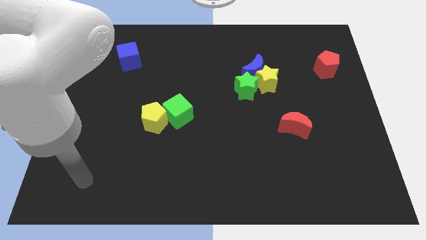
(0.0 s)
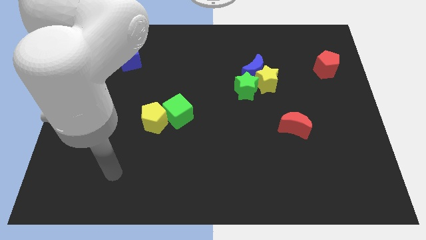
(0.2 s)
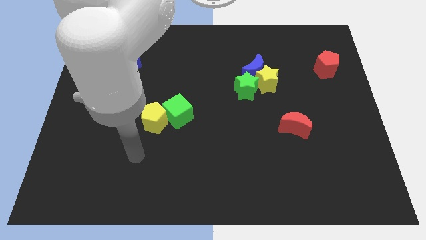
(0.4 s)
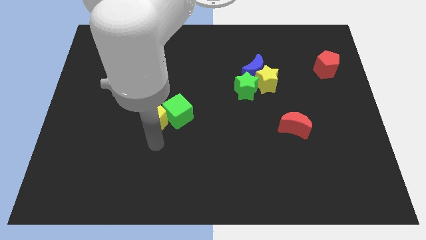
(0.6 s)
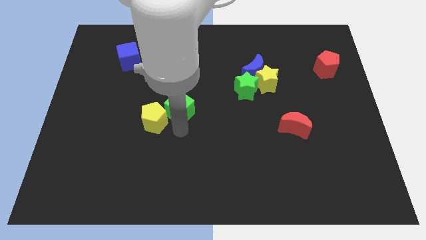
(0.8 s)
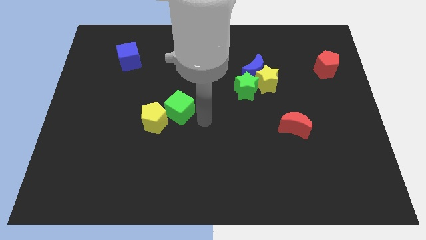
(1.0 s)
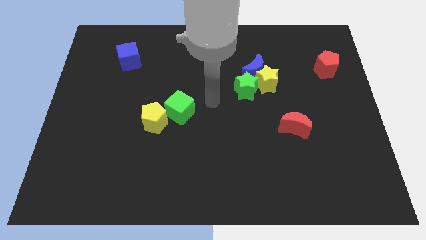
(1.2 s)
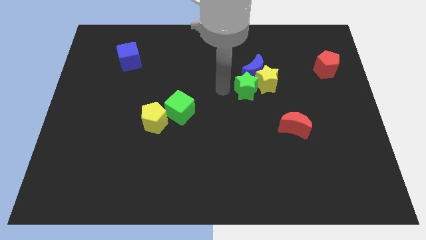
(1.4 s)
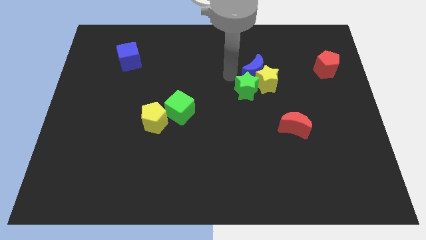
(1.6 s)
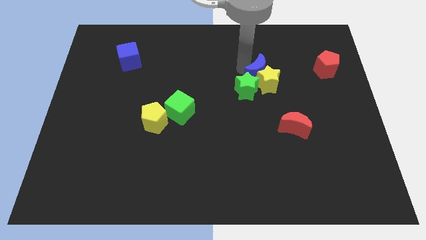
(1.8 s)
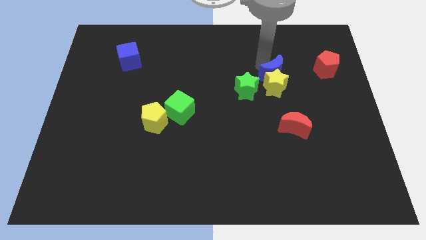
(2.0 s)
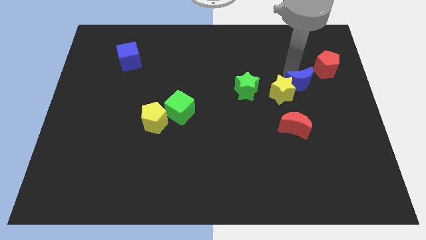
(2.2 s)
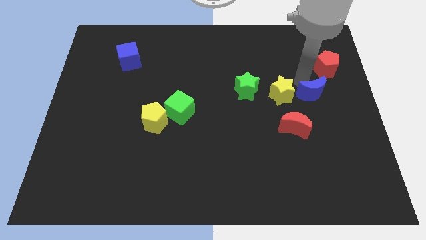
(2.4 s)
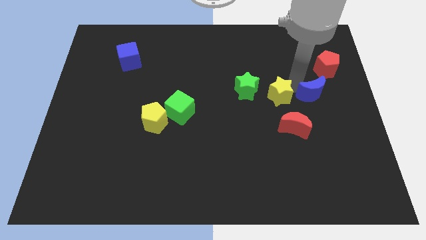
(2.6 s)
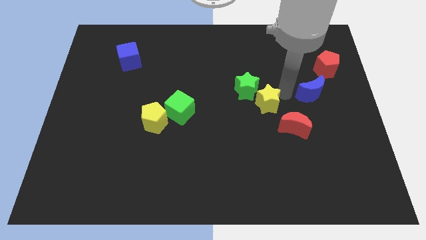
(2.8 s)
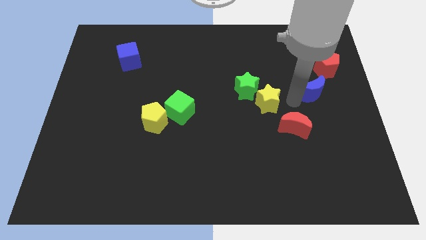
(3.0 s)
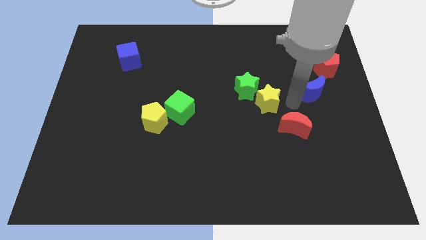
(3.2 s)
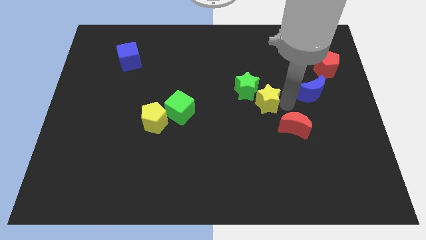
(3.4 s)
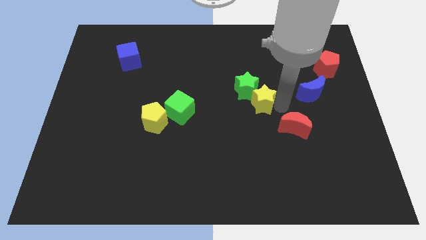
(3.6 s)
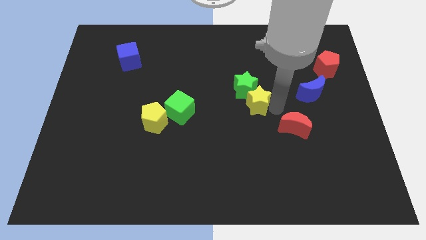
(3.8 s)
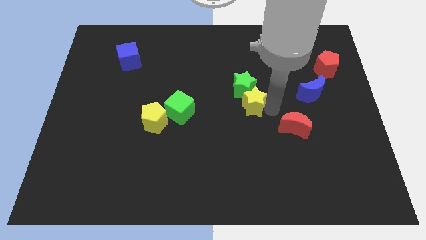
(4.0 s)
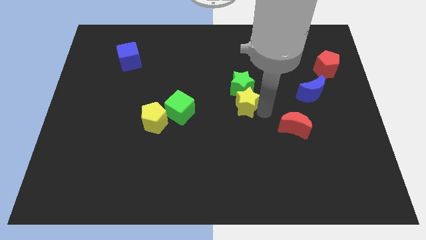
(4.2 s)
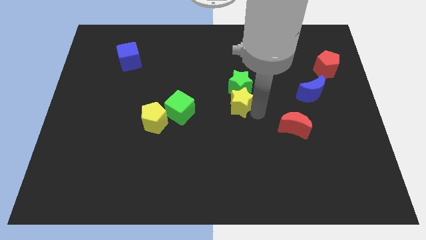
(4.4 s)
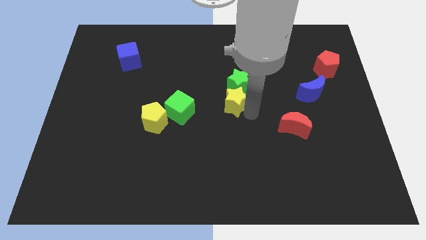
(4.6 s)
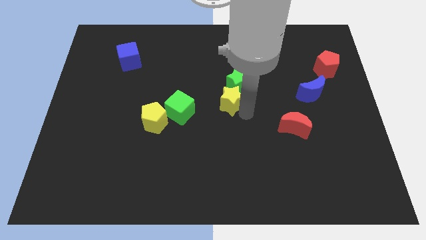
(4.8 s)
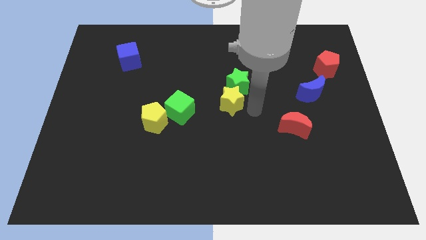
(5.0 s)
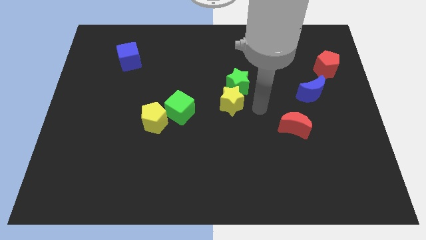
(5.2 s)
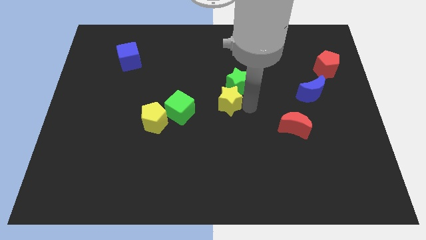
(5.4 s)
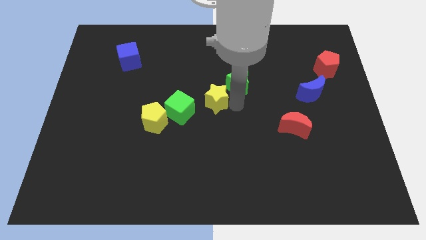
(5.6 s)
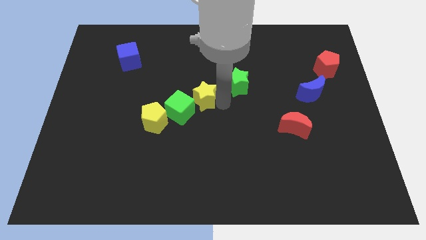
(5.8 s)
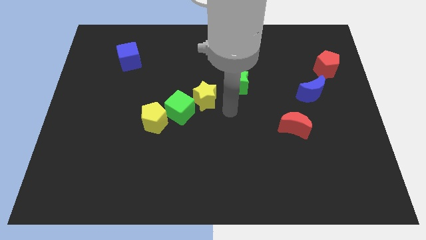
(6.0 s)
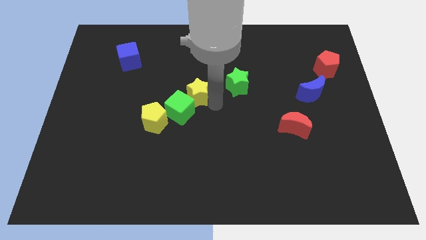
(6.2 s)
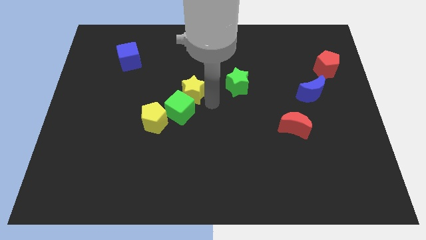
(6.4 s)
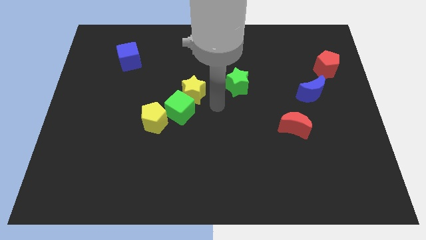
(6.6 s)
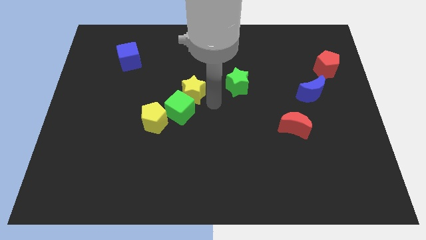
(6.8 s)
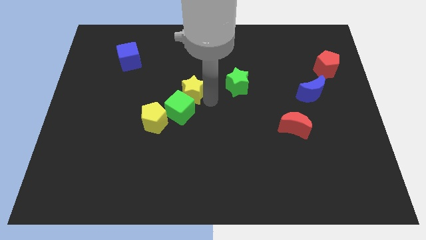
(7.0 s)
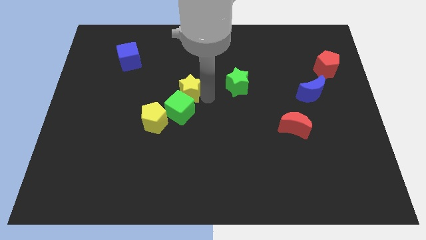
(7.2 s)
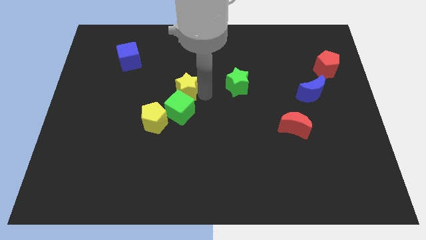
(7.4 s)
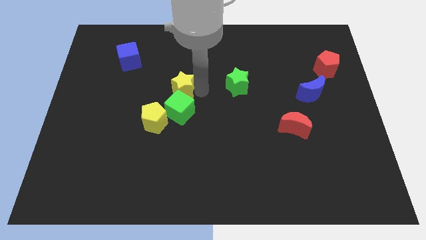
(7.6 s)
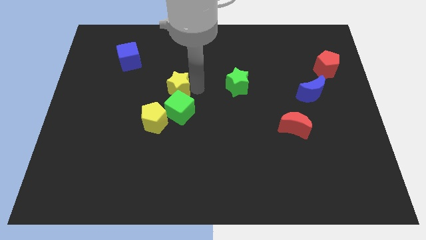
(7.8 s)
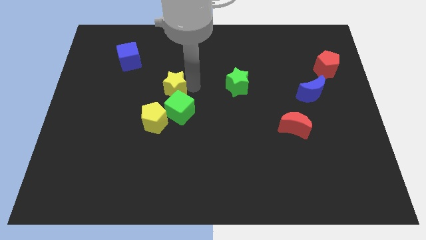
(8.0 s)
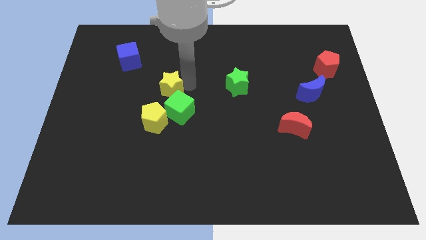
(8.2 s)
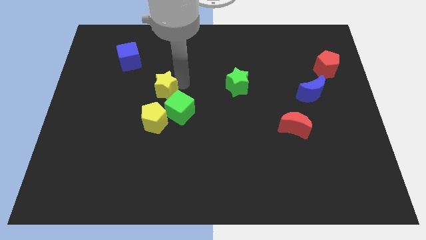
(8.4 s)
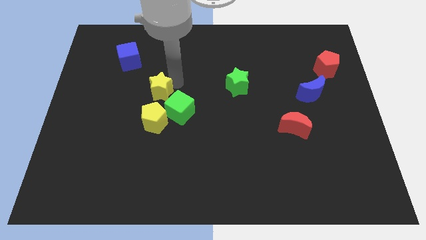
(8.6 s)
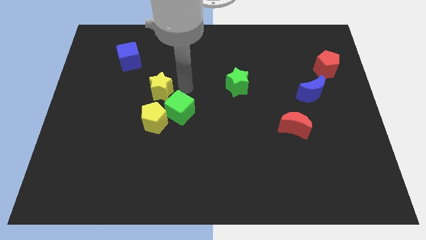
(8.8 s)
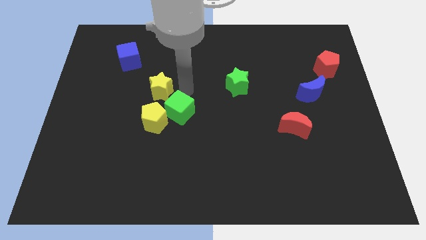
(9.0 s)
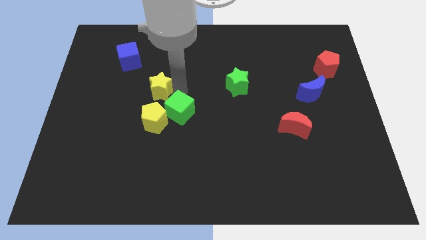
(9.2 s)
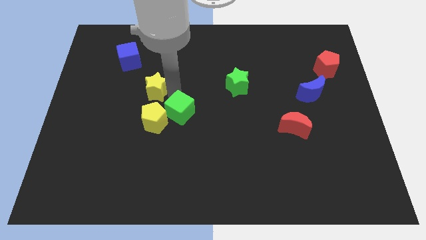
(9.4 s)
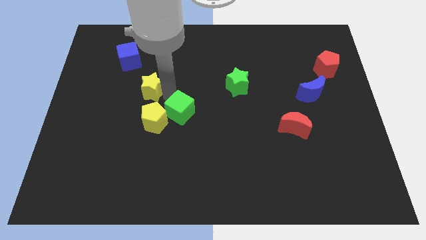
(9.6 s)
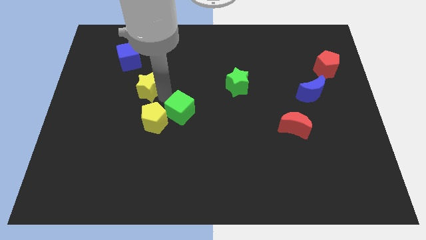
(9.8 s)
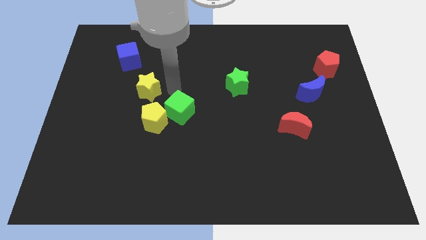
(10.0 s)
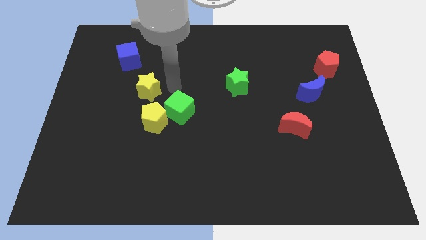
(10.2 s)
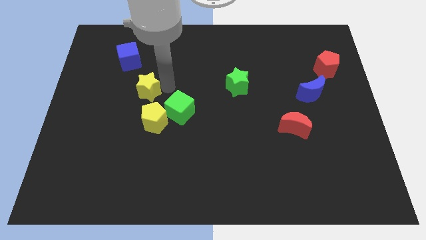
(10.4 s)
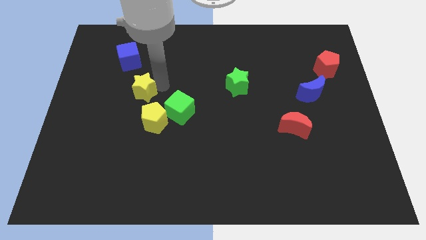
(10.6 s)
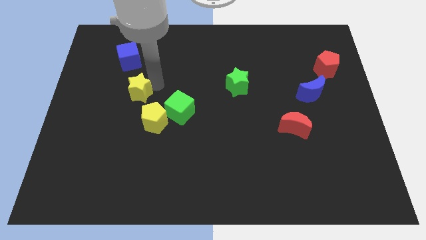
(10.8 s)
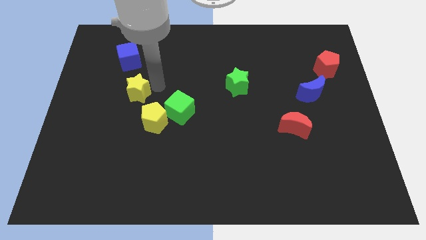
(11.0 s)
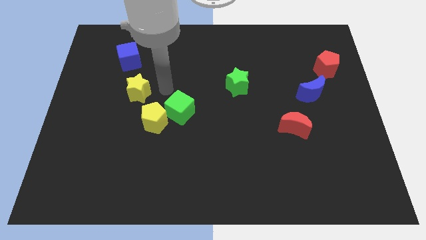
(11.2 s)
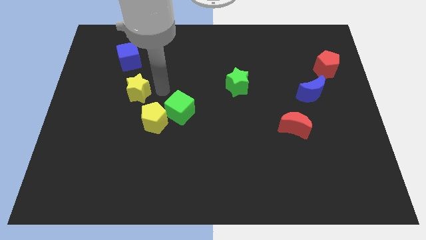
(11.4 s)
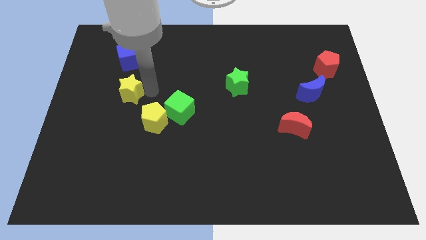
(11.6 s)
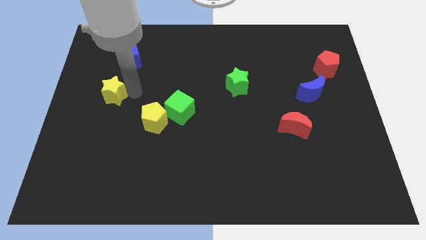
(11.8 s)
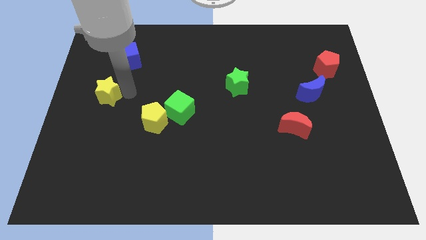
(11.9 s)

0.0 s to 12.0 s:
move the yellow star to the left side

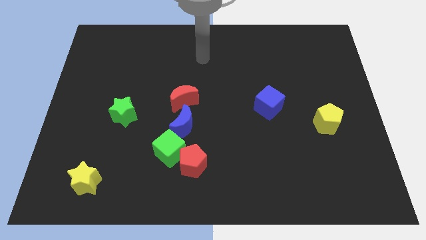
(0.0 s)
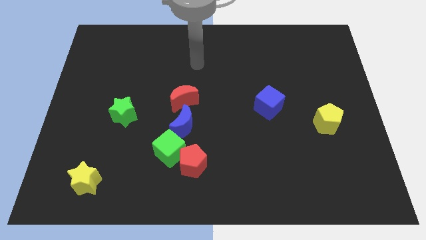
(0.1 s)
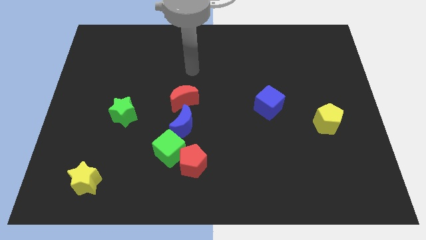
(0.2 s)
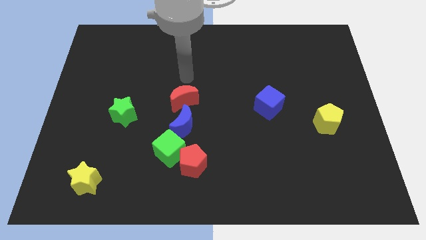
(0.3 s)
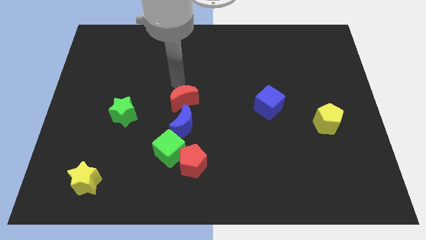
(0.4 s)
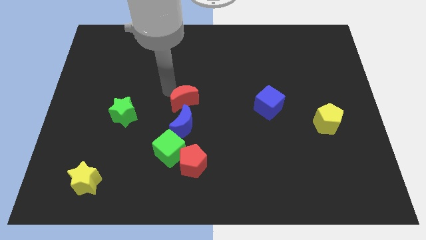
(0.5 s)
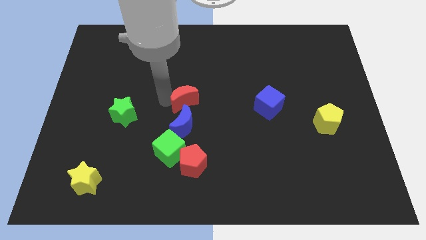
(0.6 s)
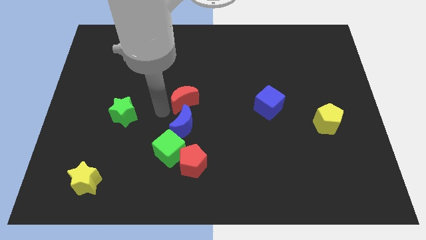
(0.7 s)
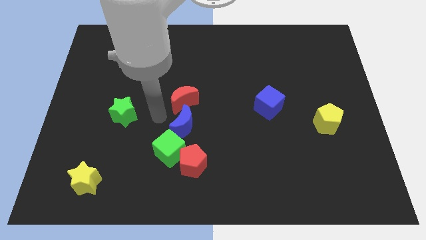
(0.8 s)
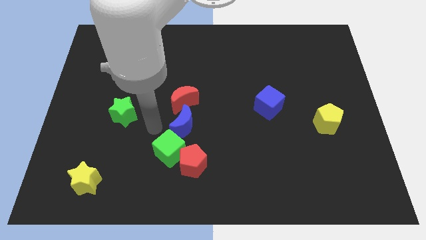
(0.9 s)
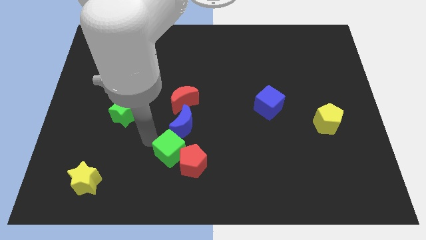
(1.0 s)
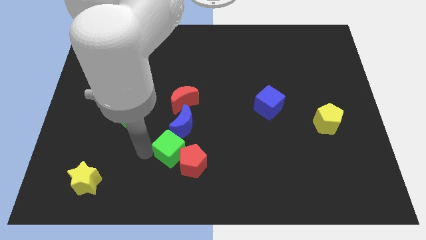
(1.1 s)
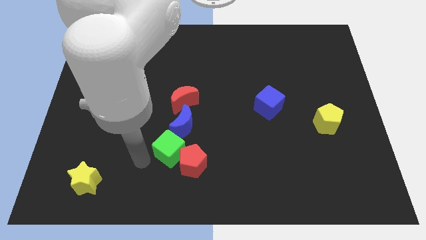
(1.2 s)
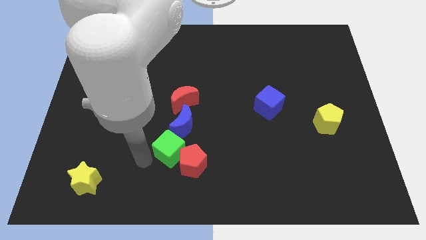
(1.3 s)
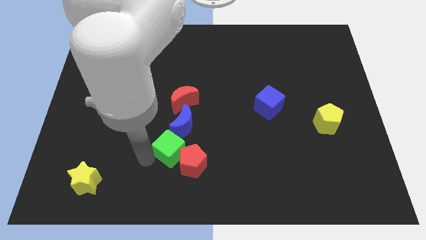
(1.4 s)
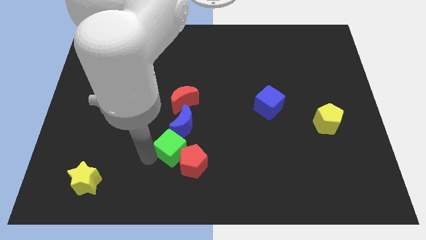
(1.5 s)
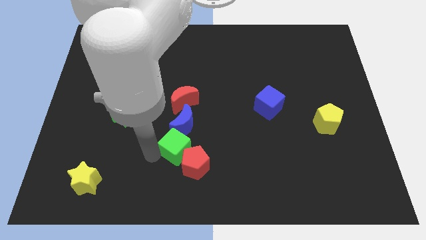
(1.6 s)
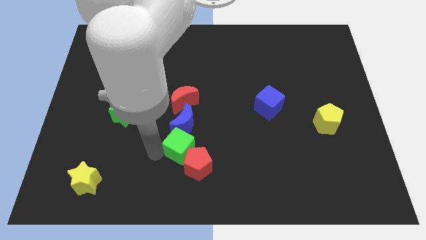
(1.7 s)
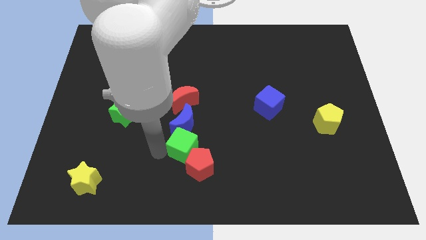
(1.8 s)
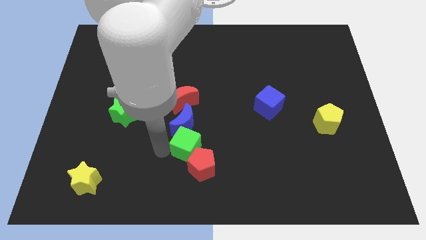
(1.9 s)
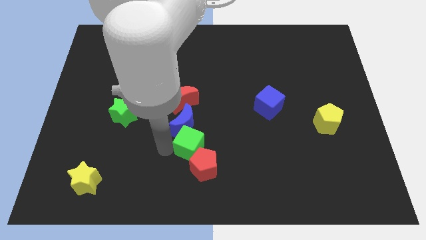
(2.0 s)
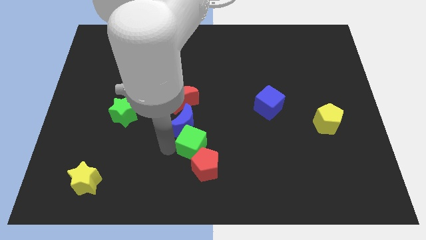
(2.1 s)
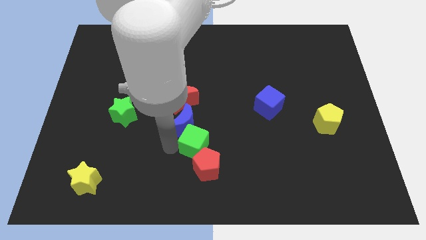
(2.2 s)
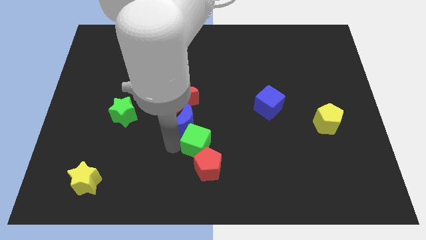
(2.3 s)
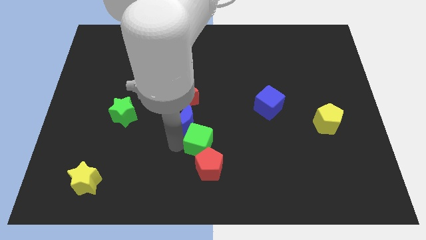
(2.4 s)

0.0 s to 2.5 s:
slide the green cube to the middle
